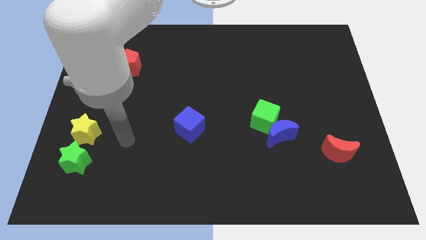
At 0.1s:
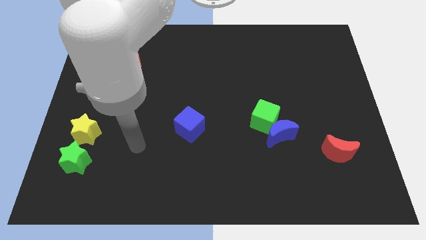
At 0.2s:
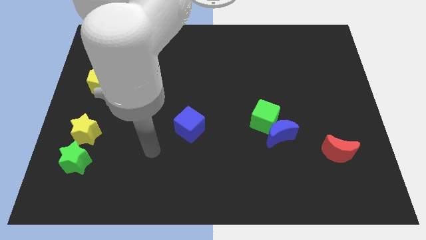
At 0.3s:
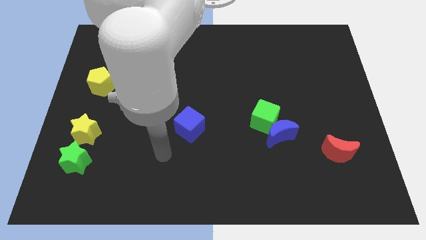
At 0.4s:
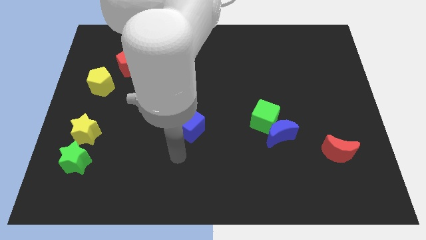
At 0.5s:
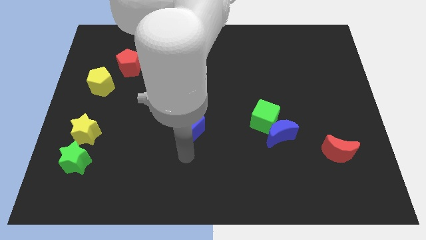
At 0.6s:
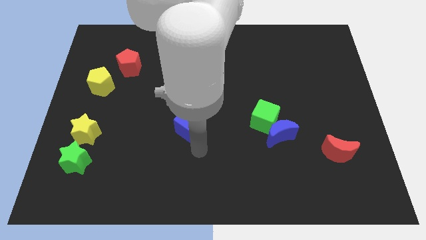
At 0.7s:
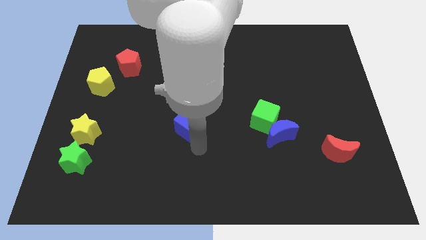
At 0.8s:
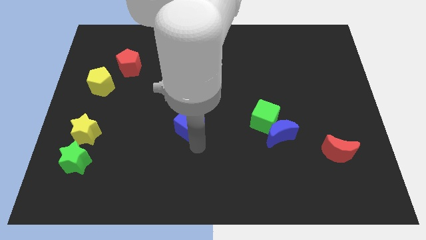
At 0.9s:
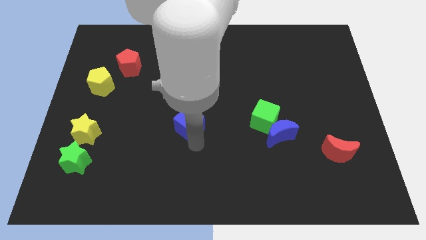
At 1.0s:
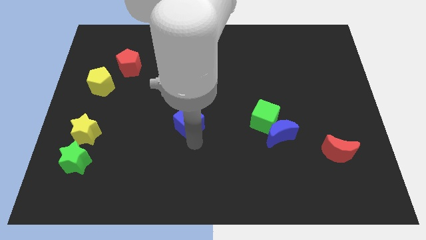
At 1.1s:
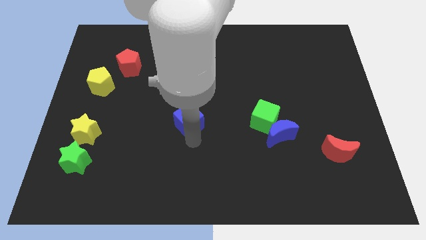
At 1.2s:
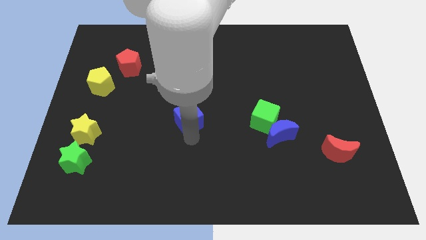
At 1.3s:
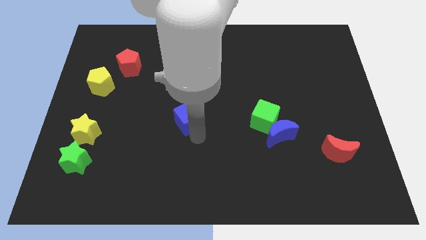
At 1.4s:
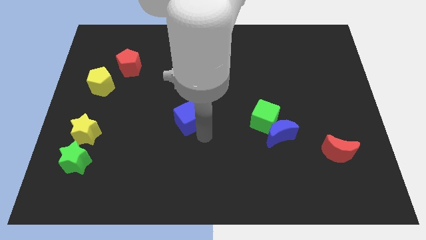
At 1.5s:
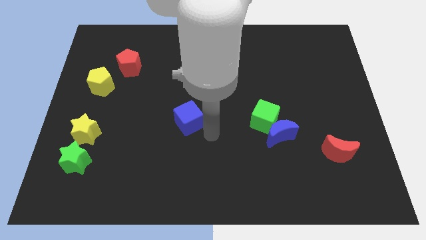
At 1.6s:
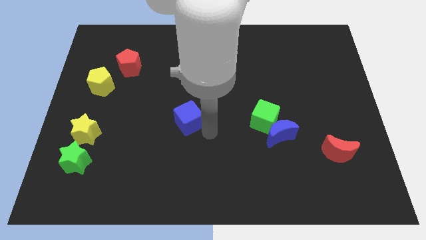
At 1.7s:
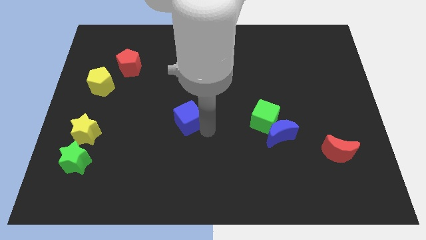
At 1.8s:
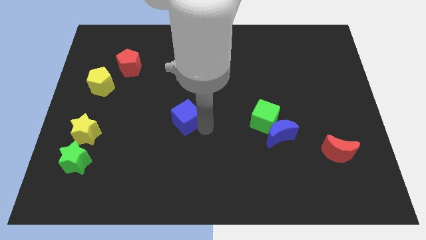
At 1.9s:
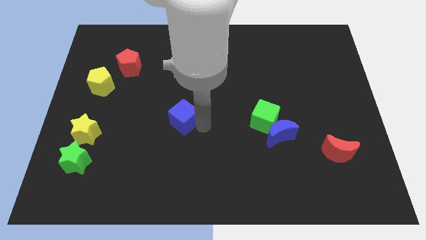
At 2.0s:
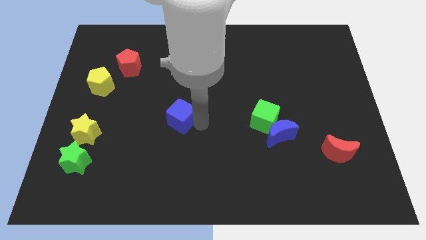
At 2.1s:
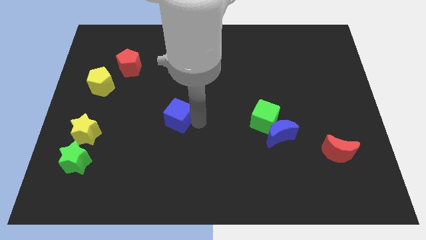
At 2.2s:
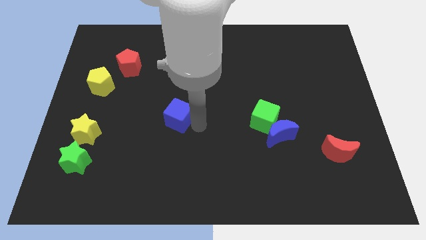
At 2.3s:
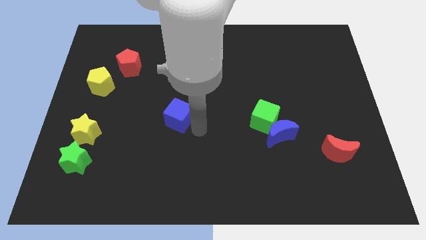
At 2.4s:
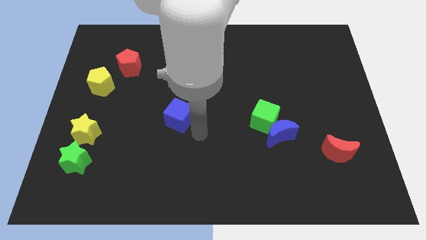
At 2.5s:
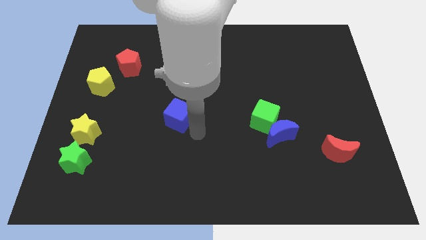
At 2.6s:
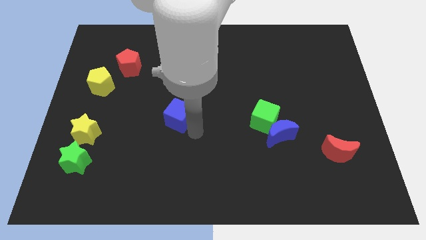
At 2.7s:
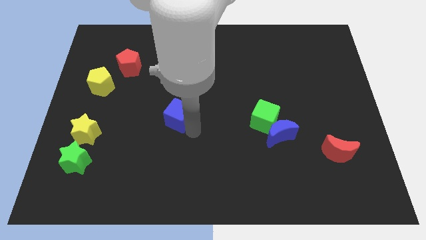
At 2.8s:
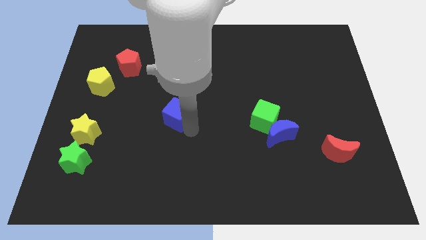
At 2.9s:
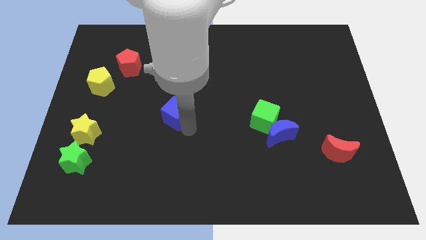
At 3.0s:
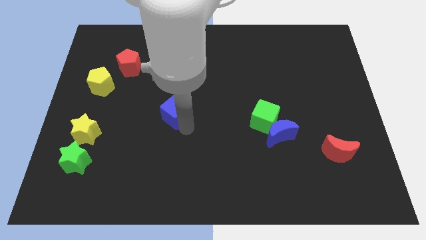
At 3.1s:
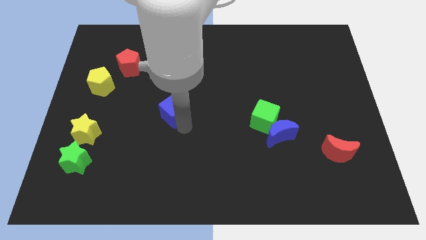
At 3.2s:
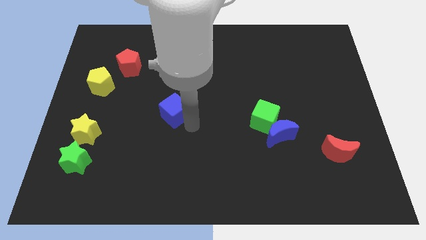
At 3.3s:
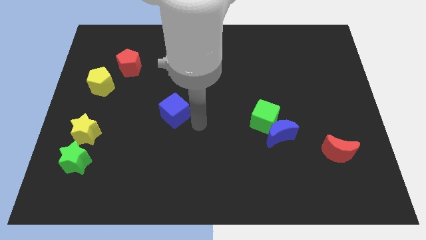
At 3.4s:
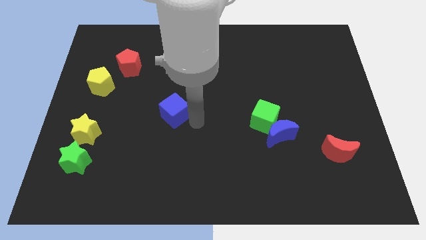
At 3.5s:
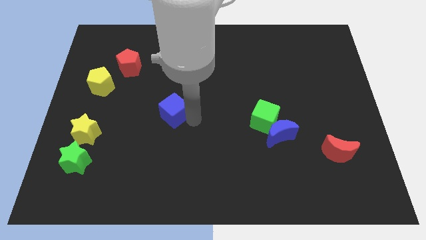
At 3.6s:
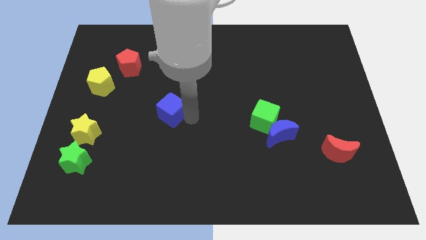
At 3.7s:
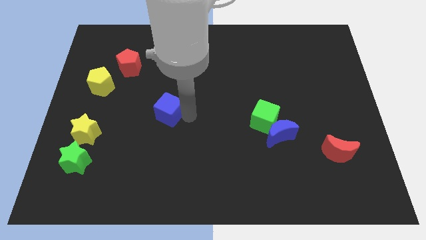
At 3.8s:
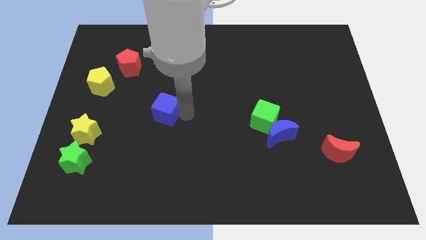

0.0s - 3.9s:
slide the blue cube a bit up and to the left diagonally

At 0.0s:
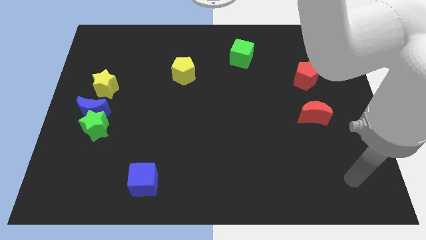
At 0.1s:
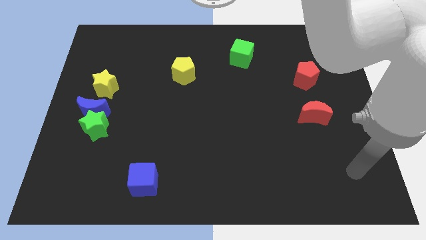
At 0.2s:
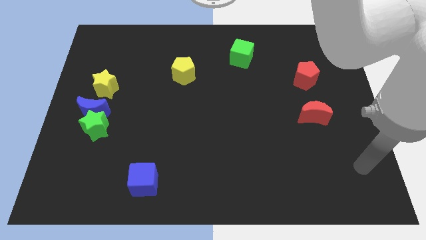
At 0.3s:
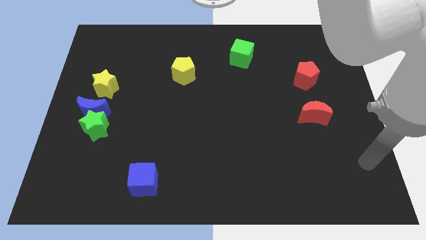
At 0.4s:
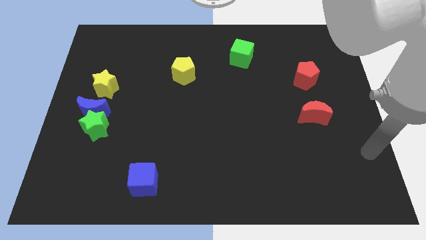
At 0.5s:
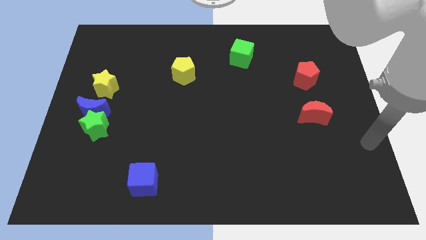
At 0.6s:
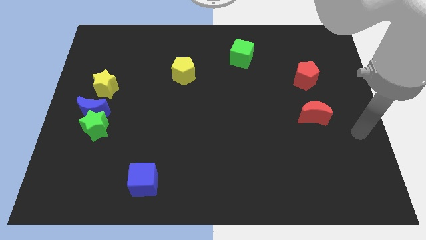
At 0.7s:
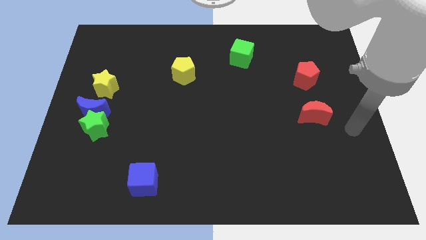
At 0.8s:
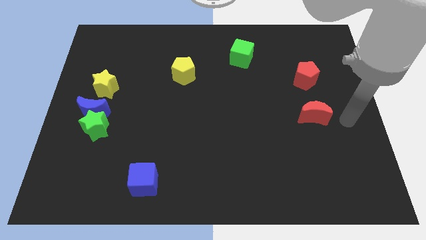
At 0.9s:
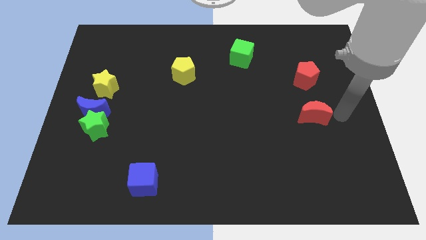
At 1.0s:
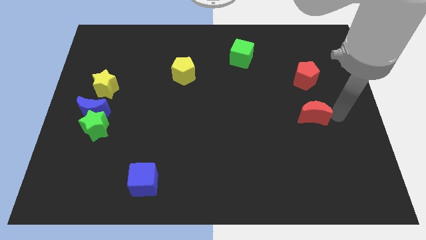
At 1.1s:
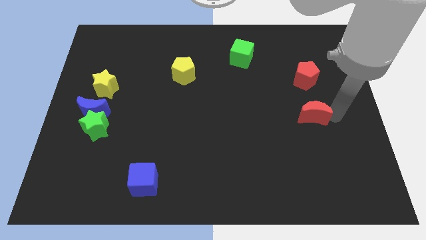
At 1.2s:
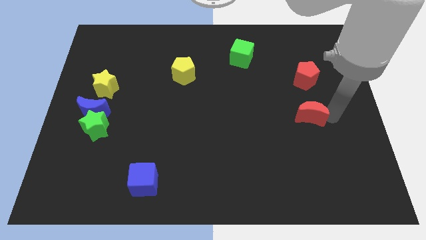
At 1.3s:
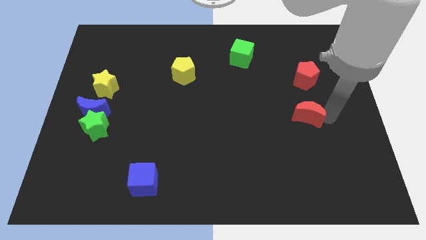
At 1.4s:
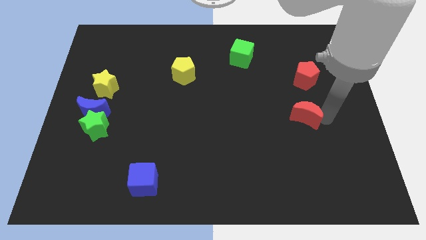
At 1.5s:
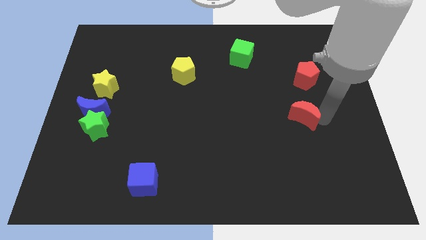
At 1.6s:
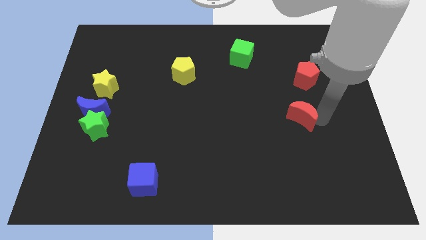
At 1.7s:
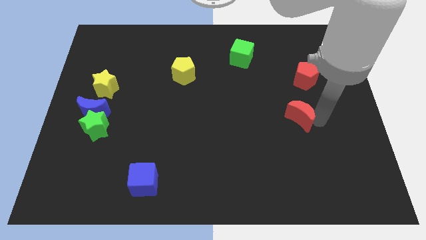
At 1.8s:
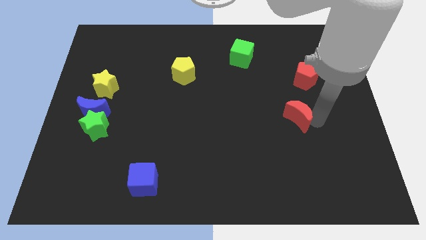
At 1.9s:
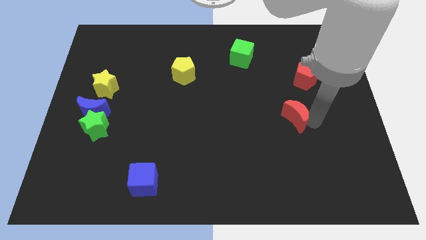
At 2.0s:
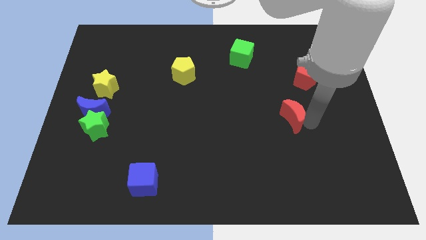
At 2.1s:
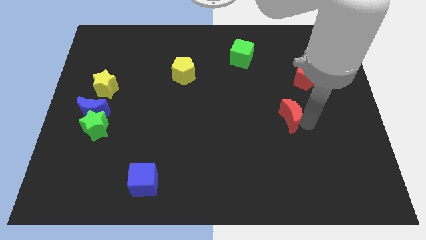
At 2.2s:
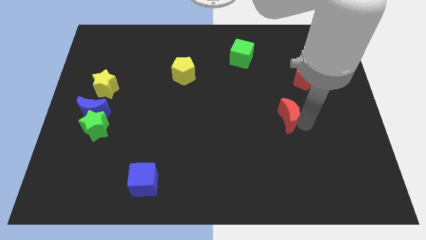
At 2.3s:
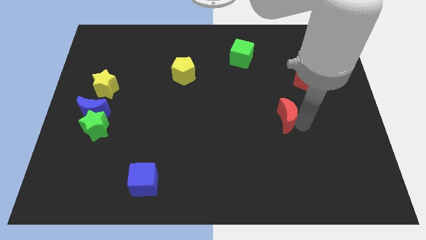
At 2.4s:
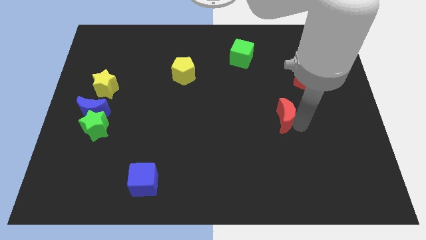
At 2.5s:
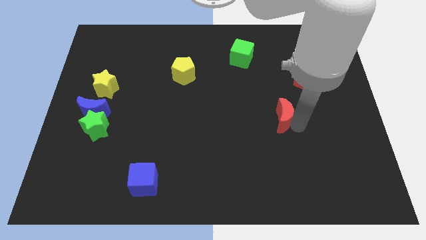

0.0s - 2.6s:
push the red moon to the left a bit

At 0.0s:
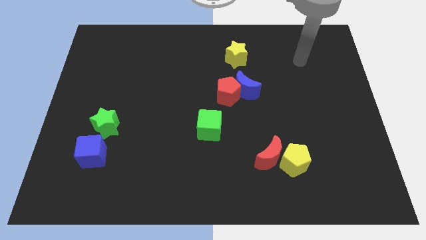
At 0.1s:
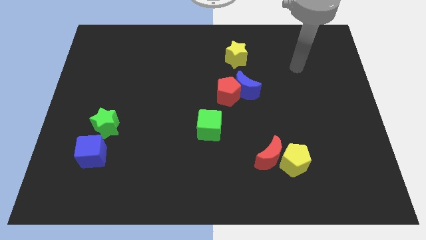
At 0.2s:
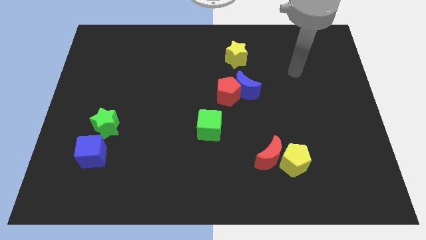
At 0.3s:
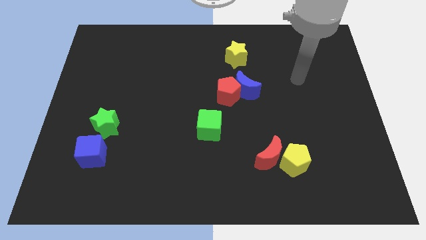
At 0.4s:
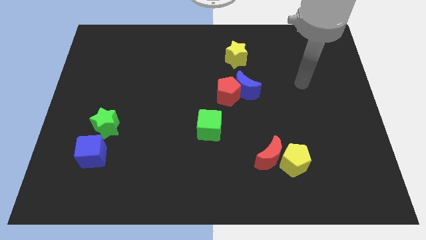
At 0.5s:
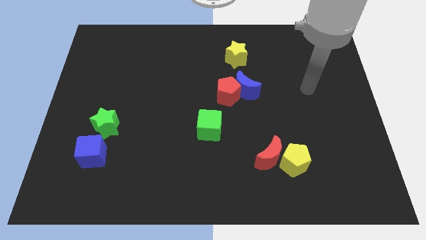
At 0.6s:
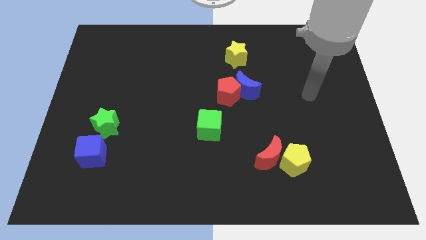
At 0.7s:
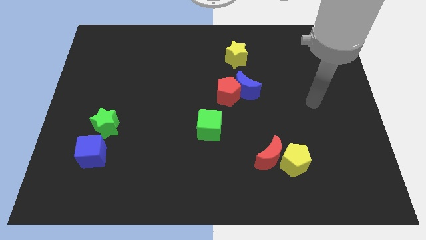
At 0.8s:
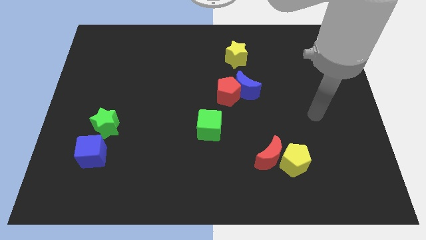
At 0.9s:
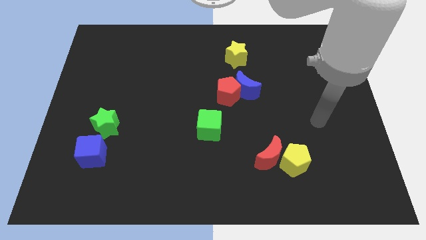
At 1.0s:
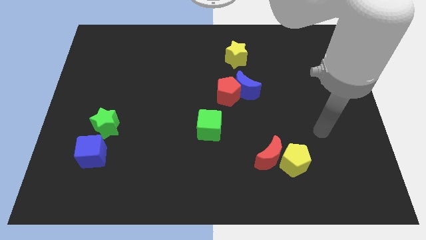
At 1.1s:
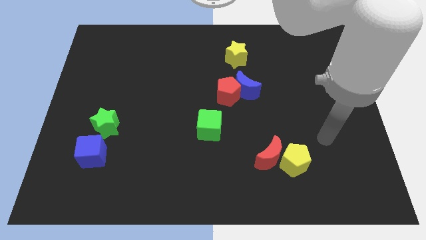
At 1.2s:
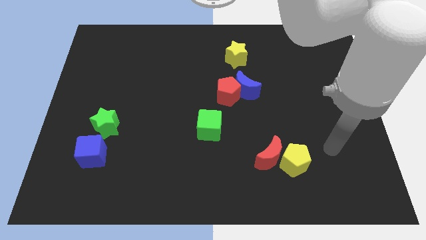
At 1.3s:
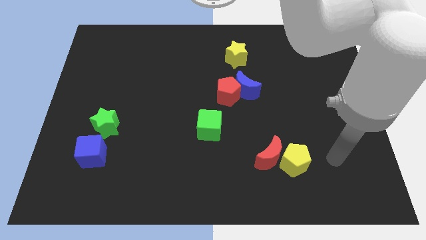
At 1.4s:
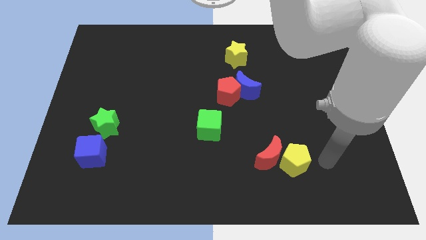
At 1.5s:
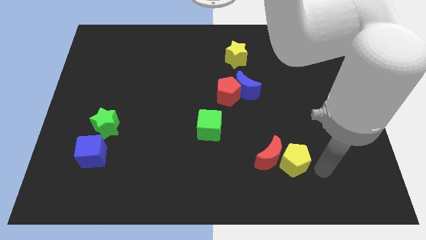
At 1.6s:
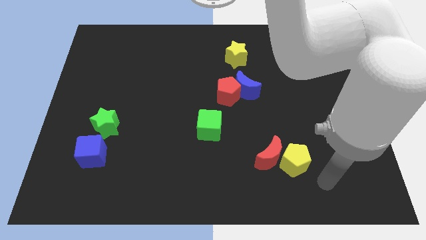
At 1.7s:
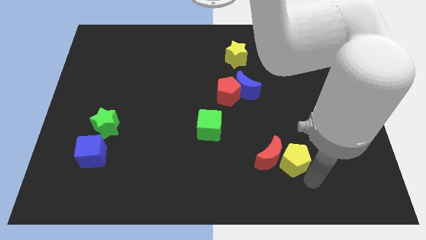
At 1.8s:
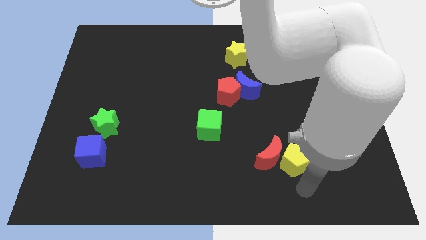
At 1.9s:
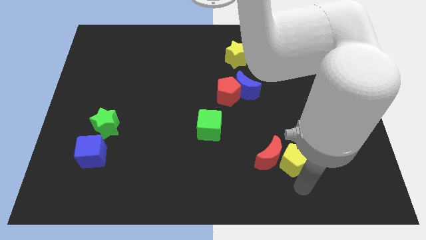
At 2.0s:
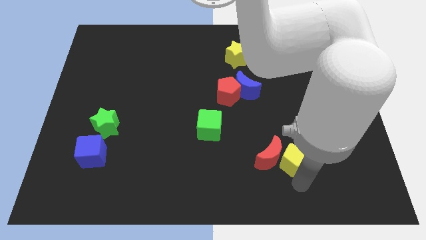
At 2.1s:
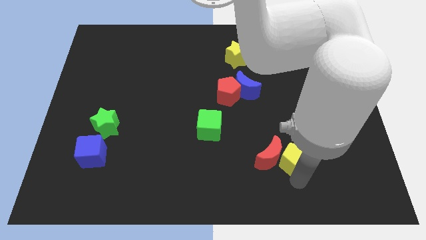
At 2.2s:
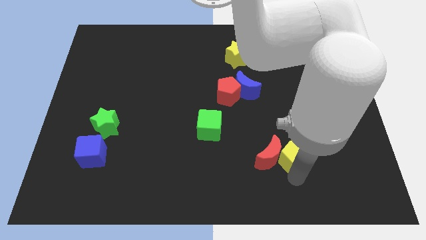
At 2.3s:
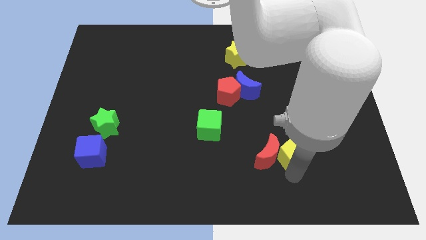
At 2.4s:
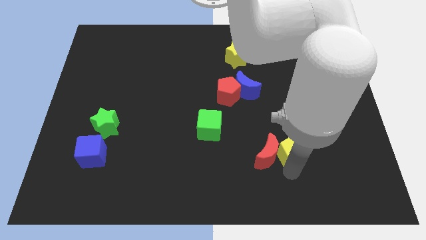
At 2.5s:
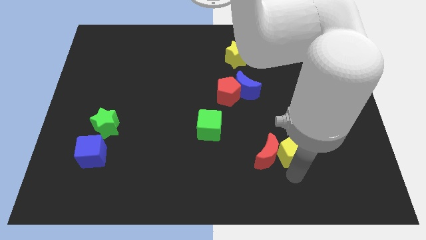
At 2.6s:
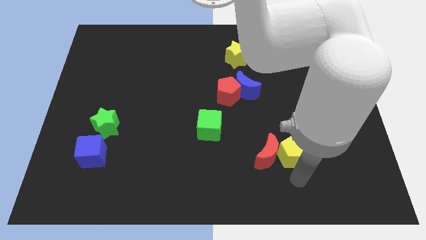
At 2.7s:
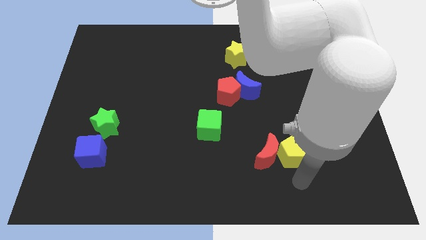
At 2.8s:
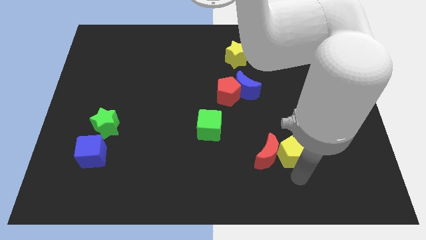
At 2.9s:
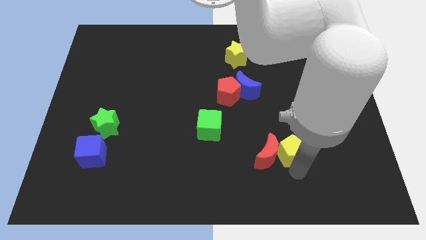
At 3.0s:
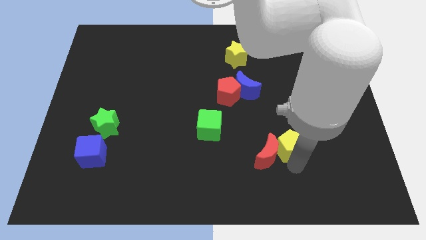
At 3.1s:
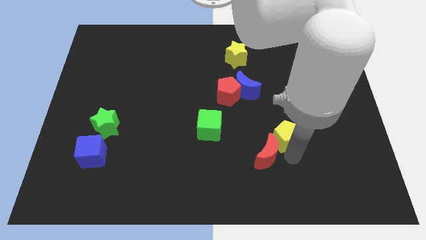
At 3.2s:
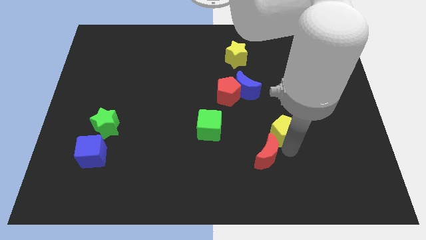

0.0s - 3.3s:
push the yellow pentagon slightly up
